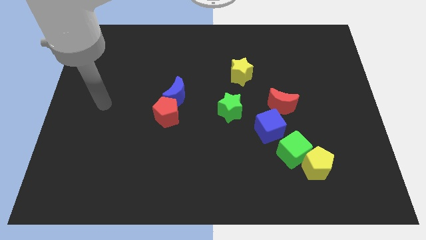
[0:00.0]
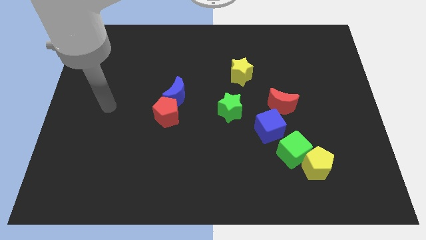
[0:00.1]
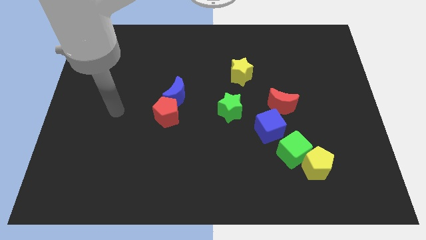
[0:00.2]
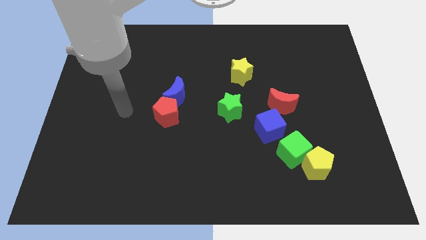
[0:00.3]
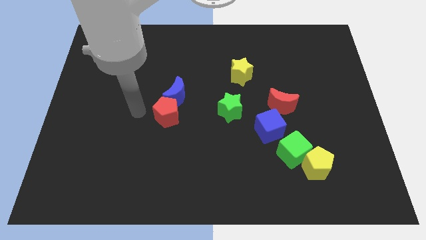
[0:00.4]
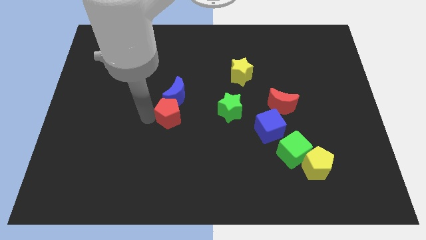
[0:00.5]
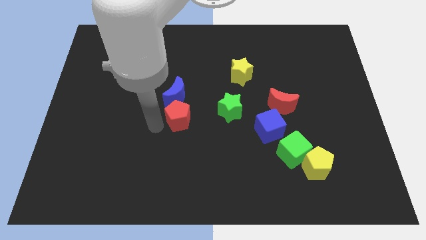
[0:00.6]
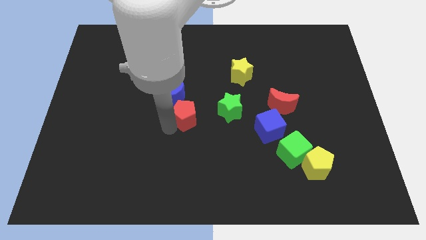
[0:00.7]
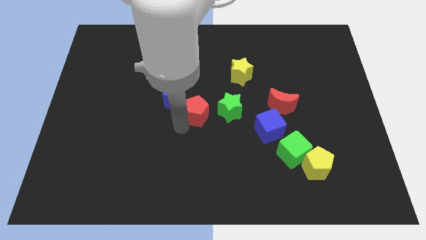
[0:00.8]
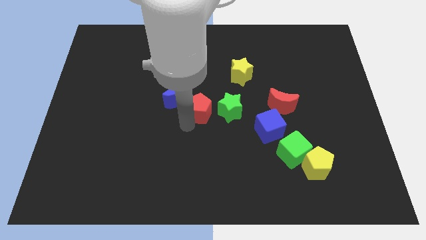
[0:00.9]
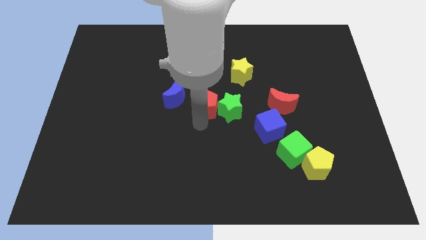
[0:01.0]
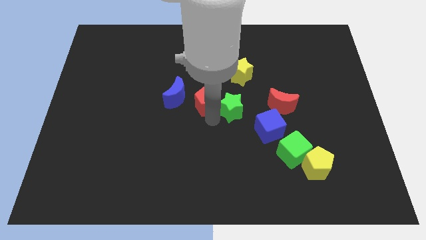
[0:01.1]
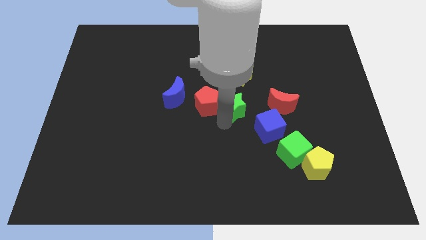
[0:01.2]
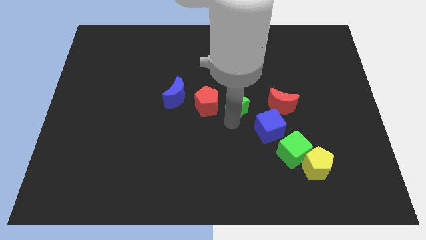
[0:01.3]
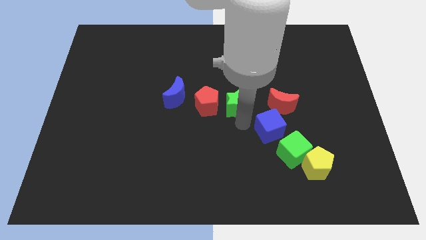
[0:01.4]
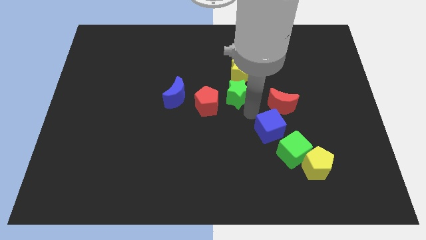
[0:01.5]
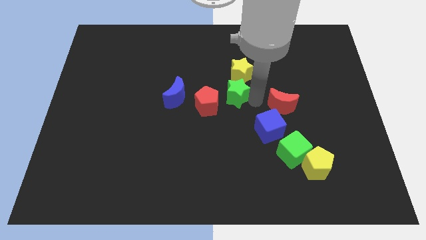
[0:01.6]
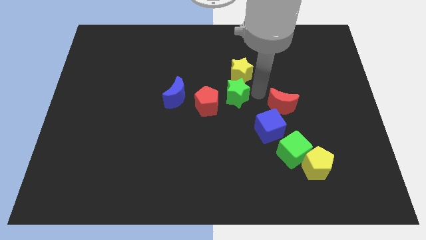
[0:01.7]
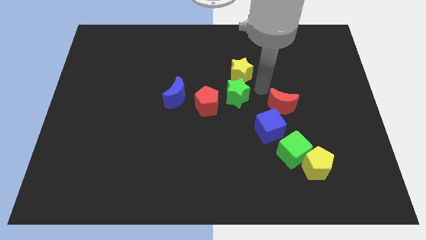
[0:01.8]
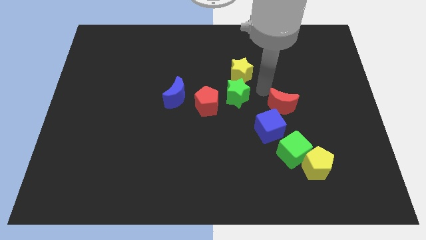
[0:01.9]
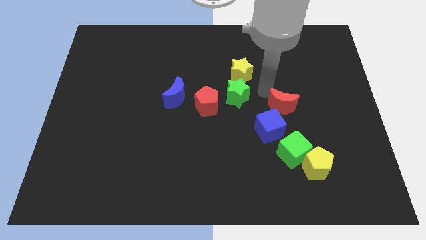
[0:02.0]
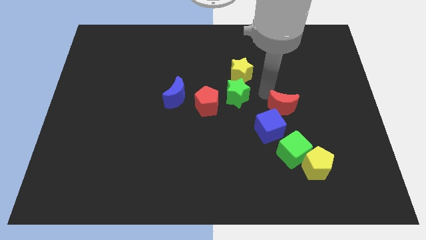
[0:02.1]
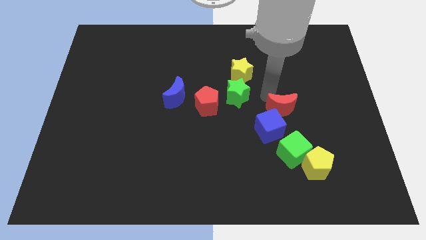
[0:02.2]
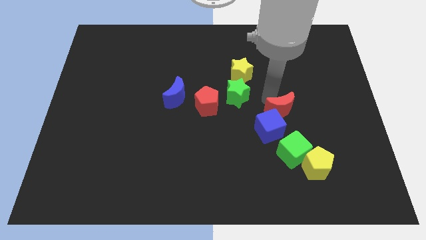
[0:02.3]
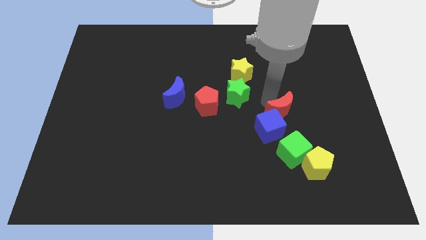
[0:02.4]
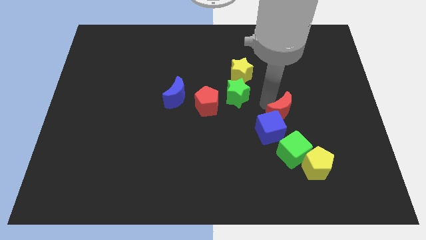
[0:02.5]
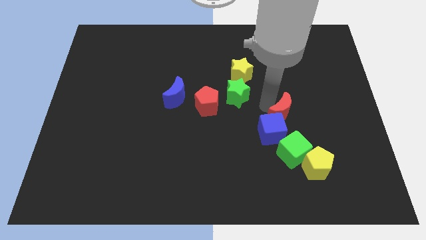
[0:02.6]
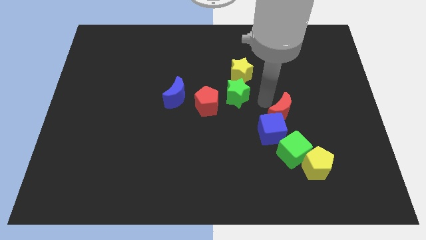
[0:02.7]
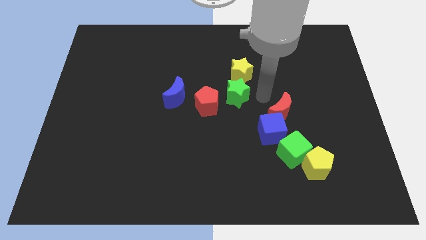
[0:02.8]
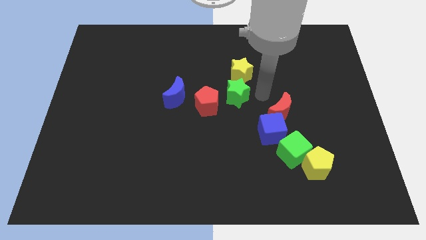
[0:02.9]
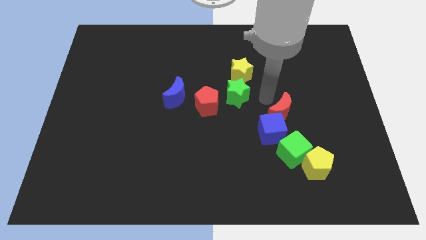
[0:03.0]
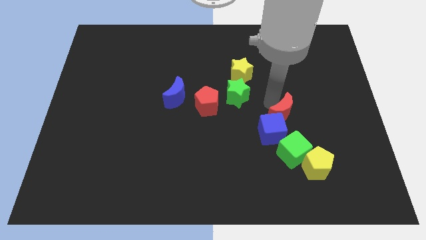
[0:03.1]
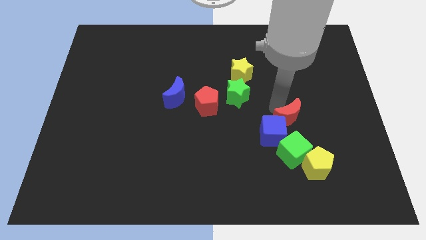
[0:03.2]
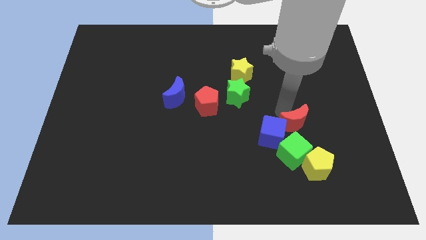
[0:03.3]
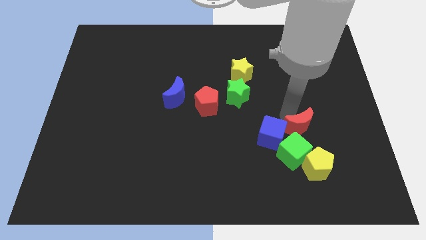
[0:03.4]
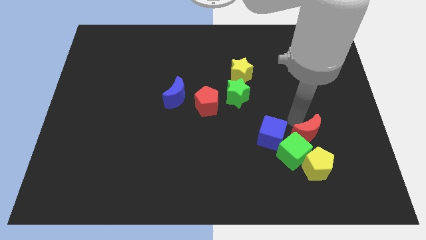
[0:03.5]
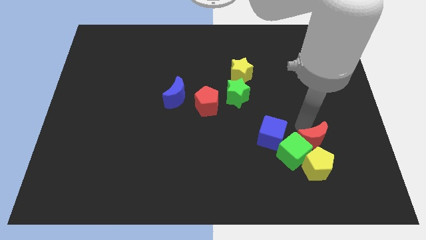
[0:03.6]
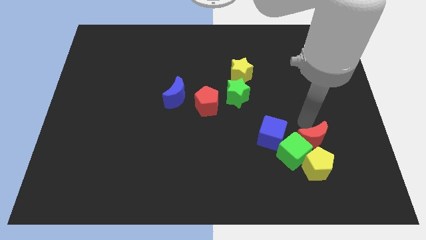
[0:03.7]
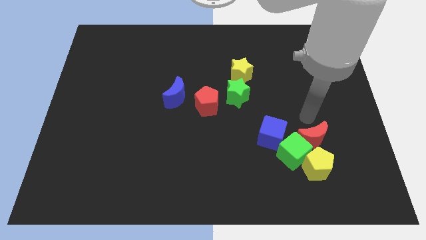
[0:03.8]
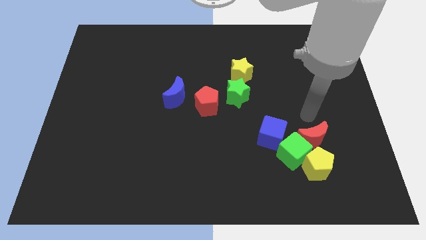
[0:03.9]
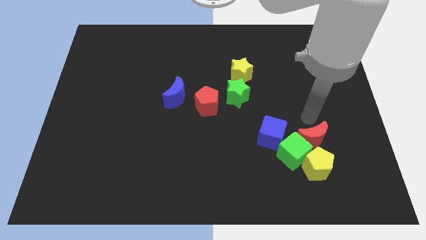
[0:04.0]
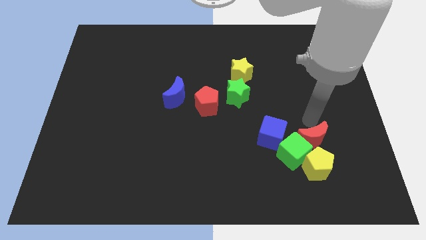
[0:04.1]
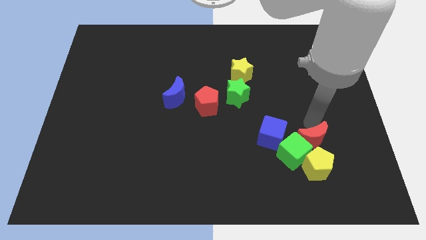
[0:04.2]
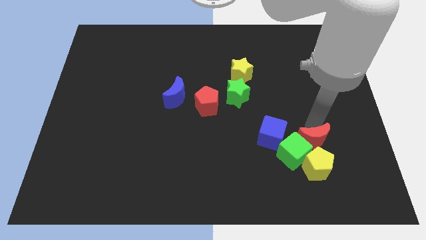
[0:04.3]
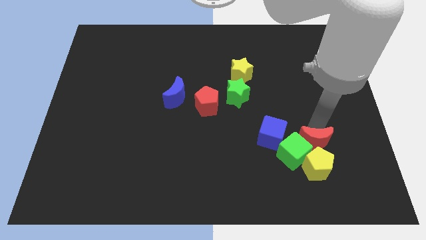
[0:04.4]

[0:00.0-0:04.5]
slide the red moon close to the yellow pentagon

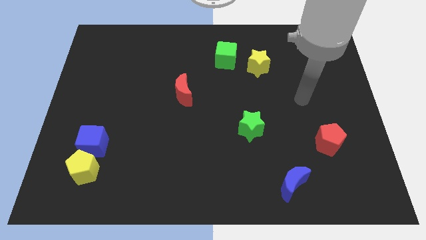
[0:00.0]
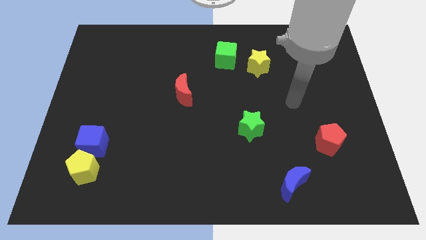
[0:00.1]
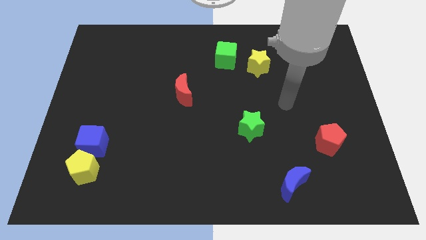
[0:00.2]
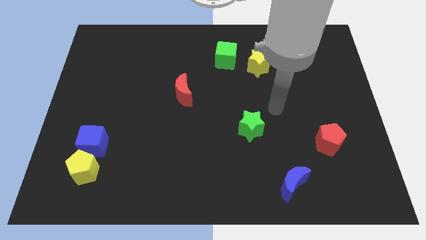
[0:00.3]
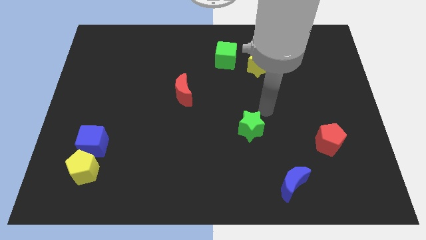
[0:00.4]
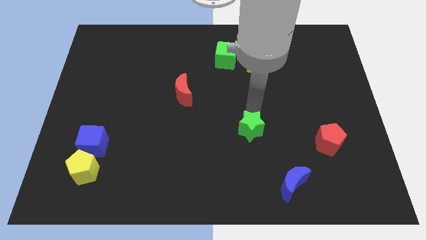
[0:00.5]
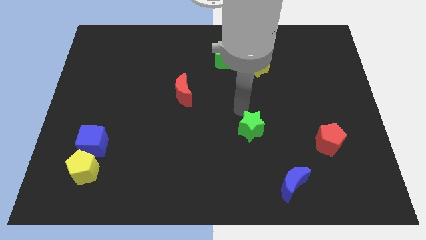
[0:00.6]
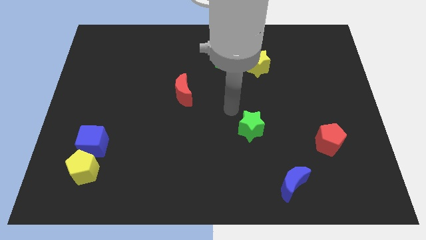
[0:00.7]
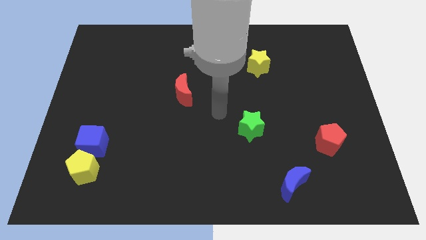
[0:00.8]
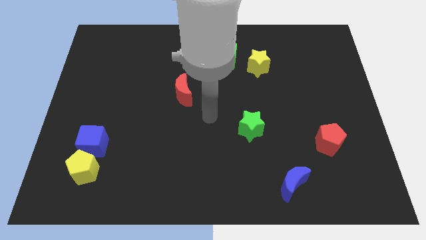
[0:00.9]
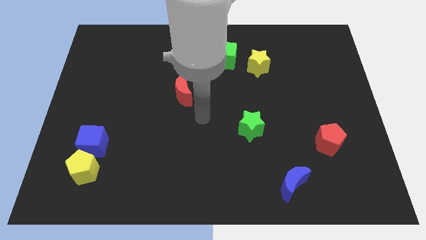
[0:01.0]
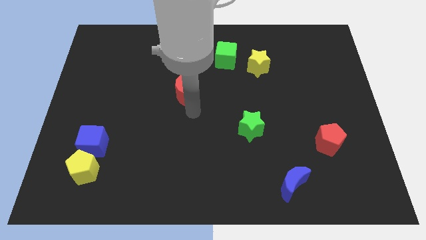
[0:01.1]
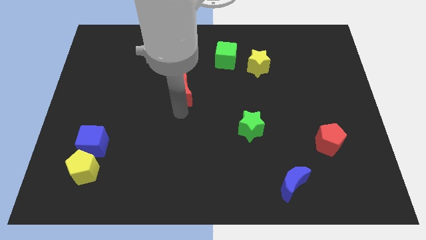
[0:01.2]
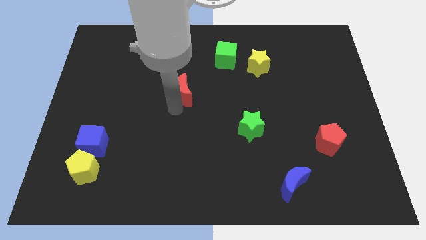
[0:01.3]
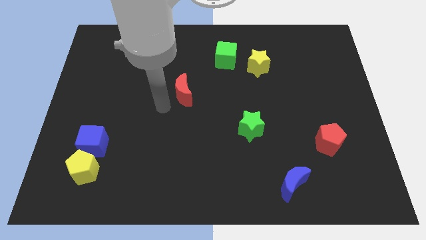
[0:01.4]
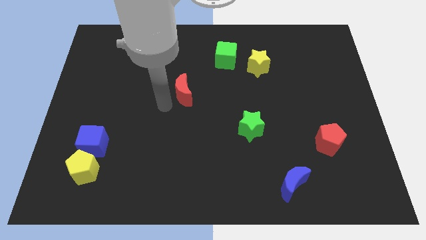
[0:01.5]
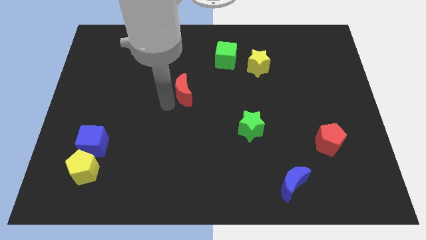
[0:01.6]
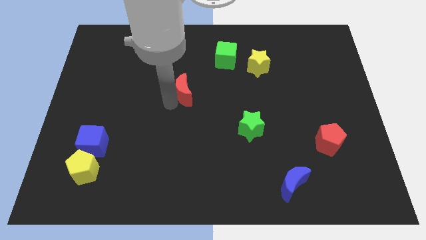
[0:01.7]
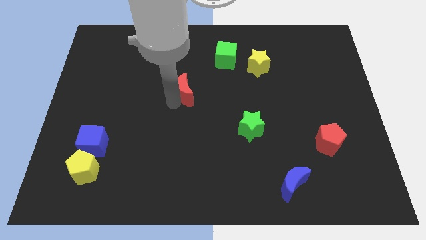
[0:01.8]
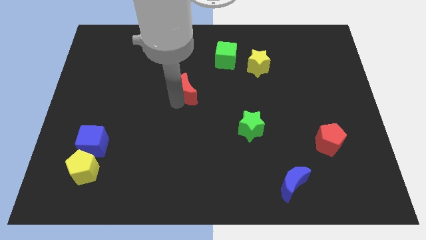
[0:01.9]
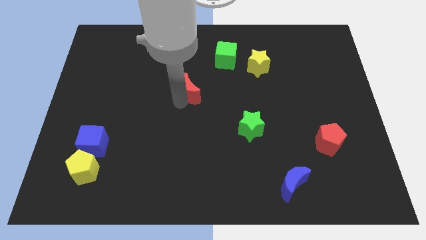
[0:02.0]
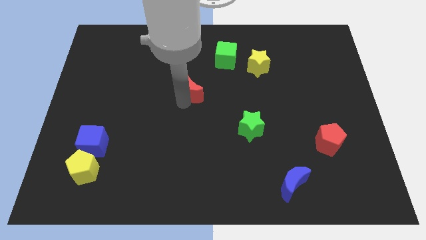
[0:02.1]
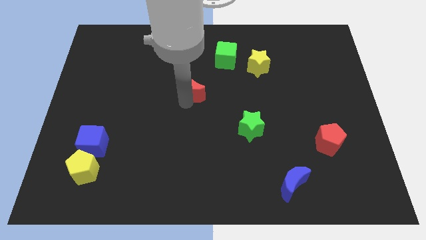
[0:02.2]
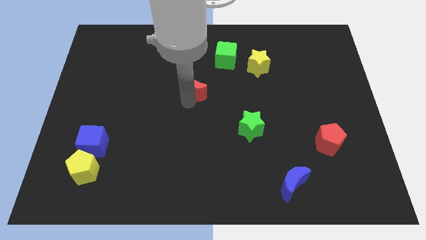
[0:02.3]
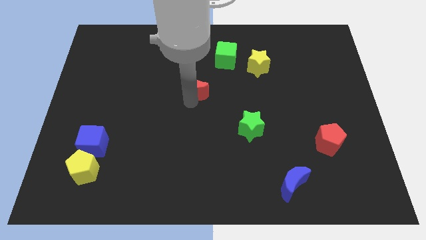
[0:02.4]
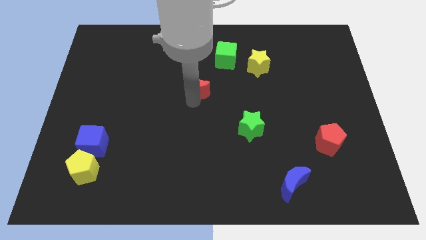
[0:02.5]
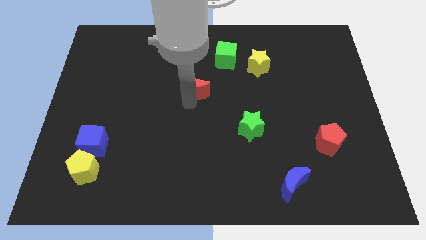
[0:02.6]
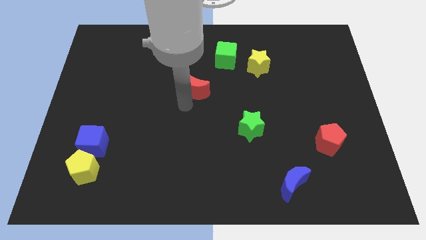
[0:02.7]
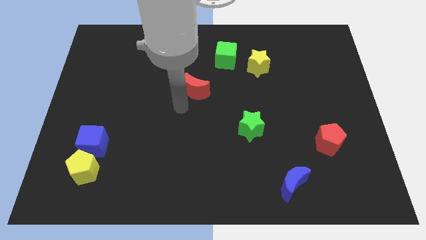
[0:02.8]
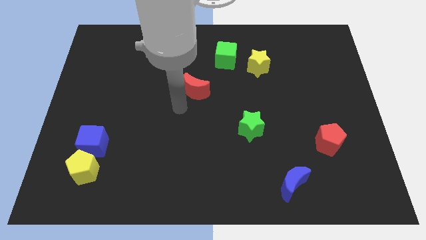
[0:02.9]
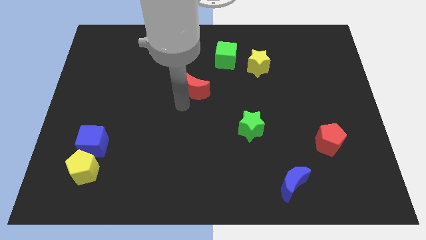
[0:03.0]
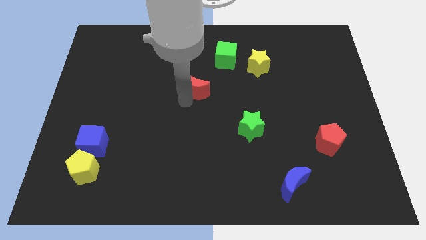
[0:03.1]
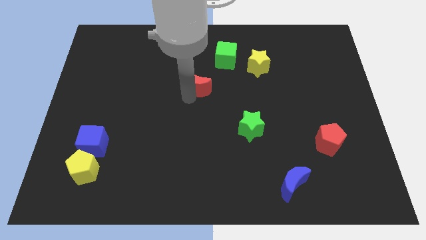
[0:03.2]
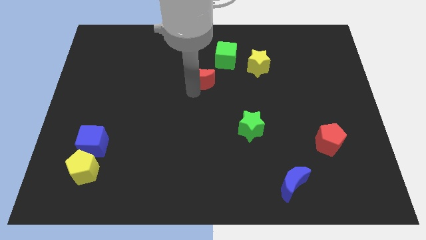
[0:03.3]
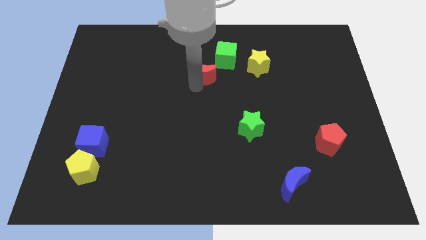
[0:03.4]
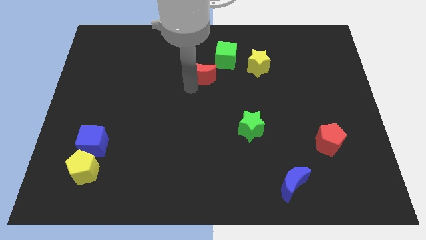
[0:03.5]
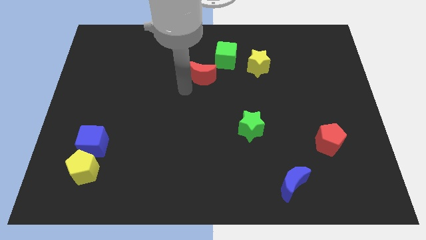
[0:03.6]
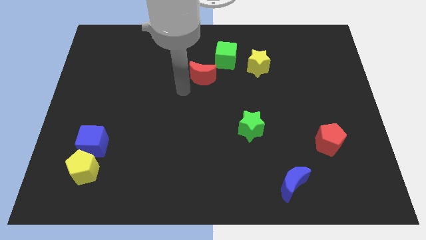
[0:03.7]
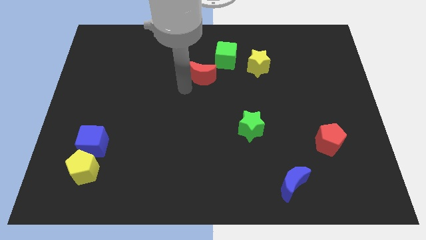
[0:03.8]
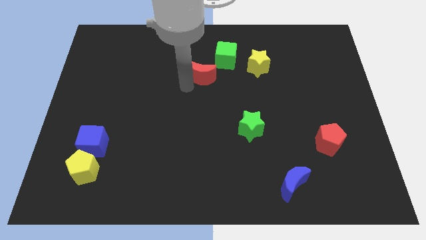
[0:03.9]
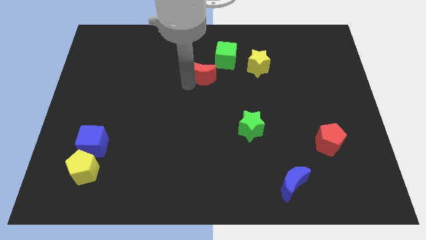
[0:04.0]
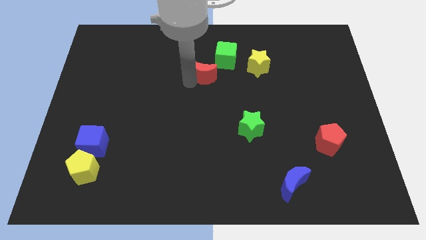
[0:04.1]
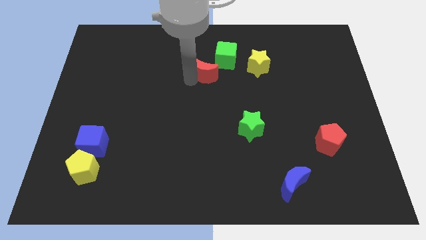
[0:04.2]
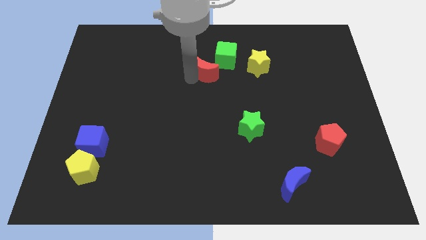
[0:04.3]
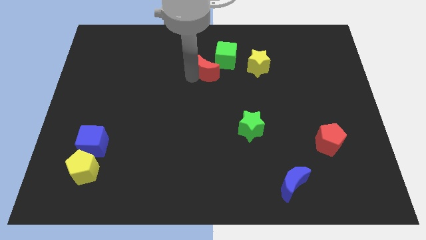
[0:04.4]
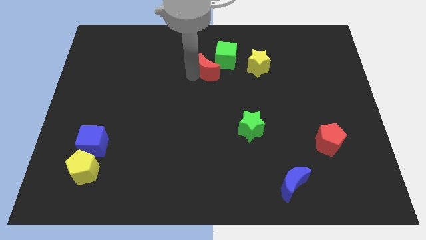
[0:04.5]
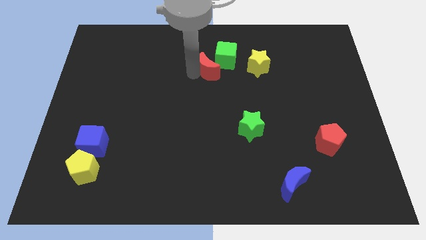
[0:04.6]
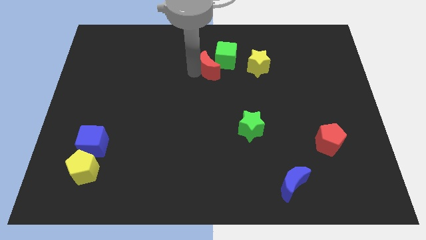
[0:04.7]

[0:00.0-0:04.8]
put the red moon to the green cube
